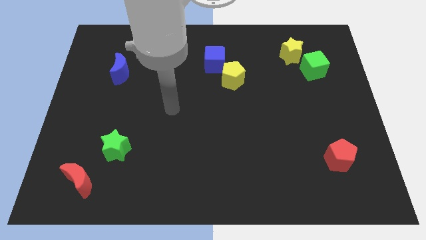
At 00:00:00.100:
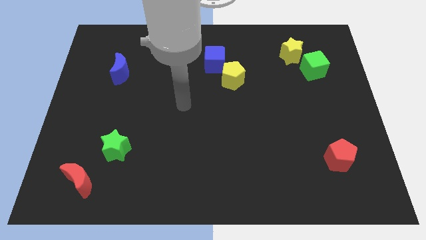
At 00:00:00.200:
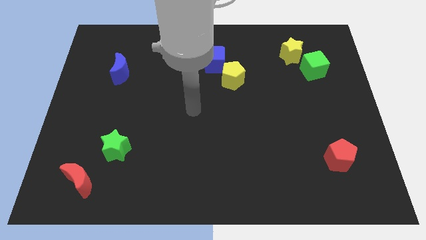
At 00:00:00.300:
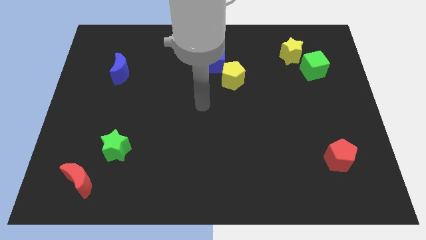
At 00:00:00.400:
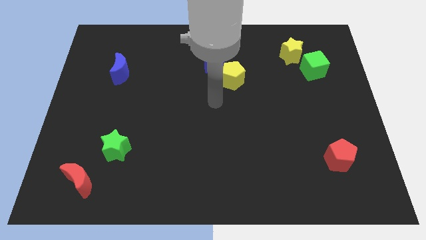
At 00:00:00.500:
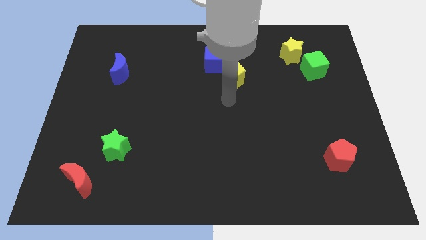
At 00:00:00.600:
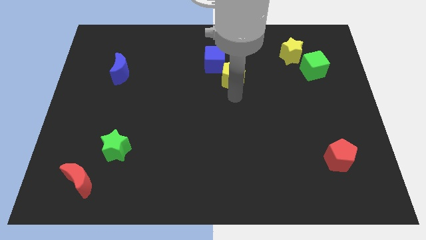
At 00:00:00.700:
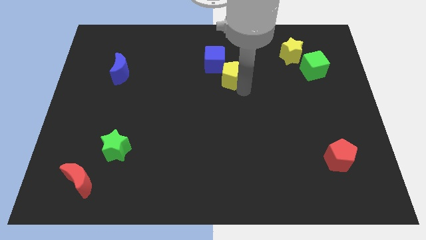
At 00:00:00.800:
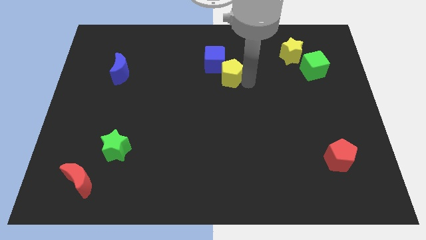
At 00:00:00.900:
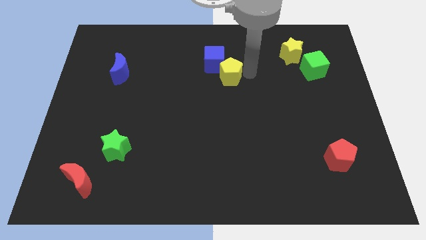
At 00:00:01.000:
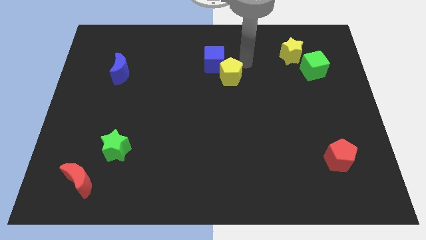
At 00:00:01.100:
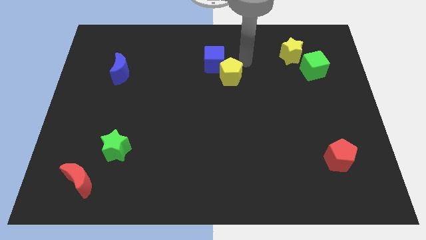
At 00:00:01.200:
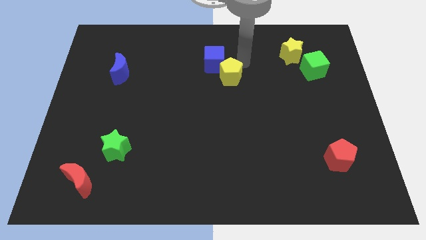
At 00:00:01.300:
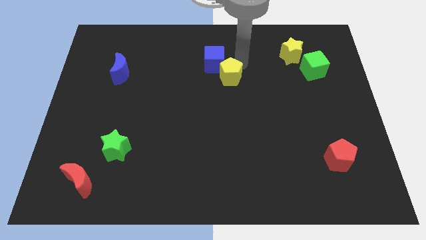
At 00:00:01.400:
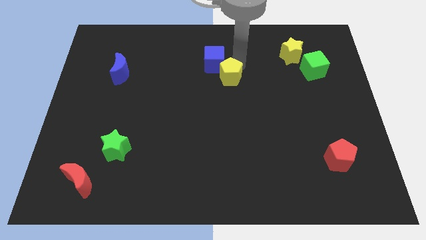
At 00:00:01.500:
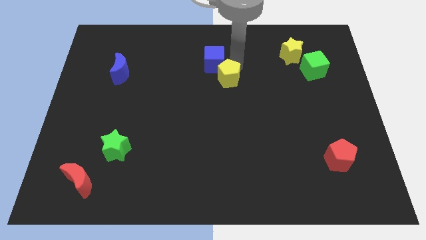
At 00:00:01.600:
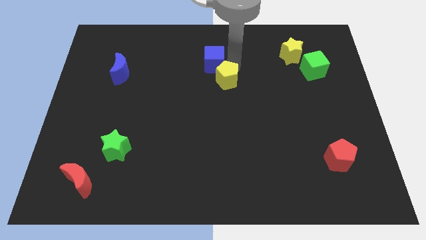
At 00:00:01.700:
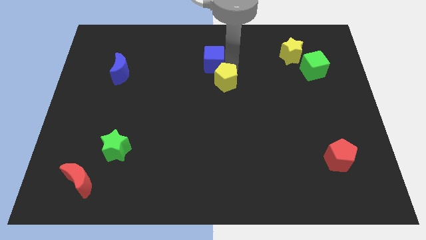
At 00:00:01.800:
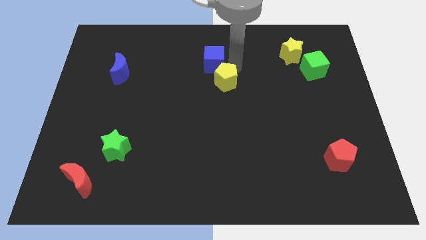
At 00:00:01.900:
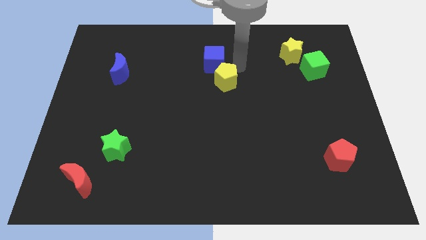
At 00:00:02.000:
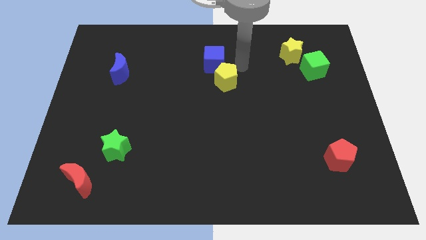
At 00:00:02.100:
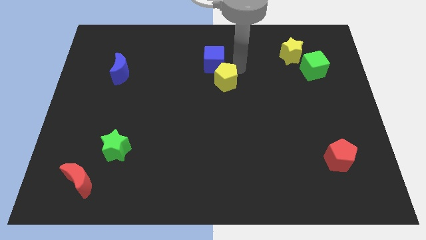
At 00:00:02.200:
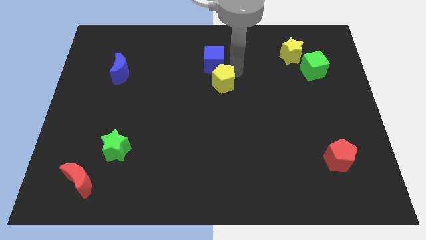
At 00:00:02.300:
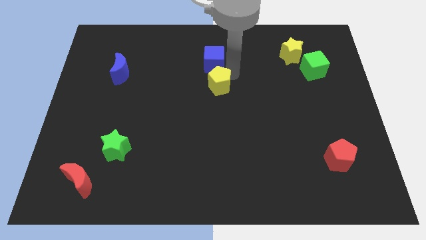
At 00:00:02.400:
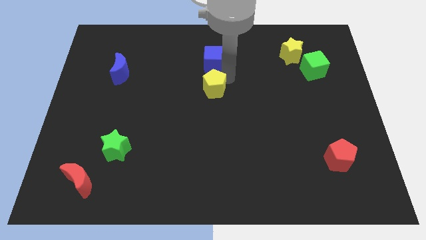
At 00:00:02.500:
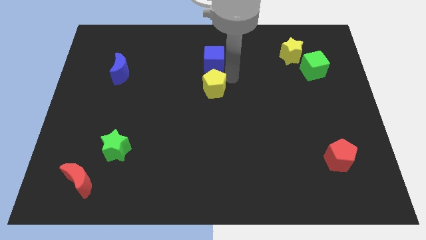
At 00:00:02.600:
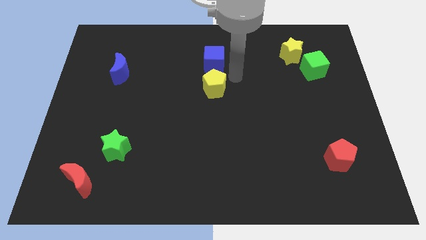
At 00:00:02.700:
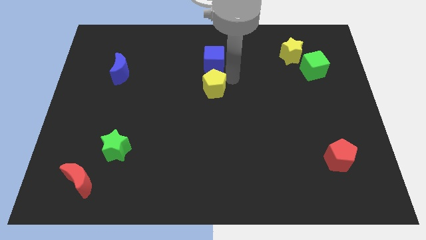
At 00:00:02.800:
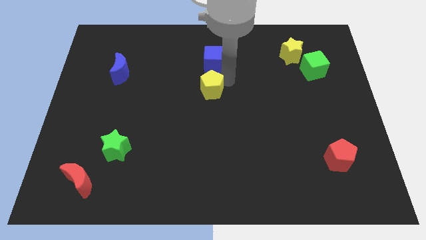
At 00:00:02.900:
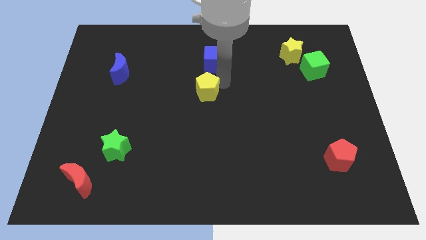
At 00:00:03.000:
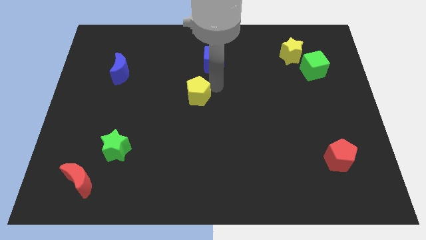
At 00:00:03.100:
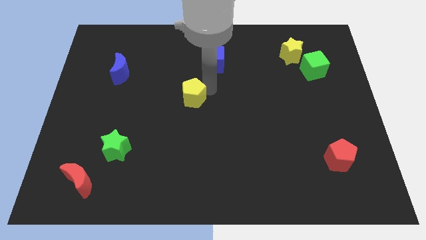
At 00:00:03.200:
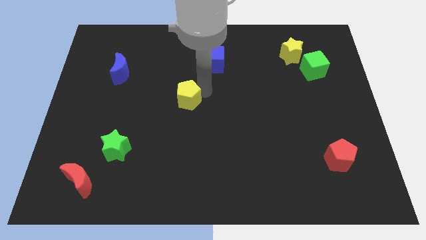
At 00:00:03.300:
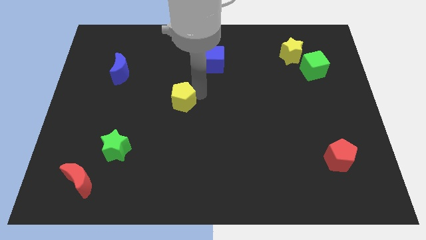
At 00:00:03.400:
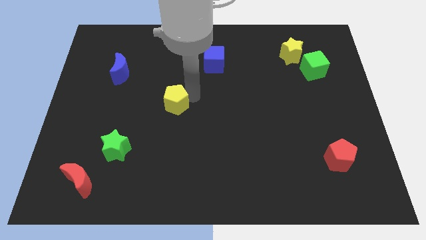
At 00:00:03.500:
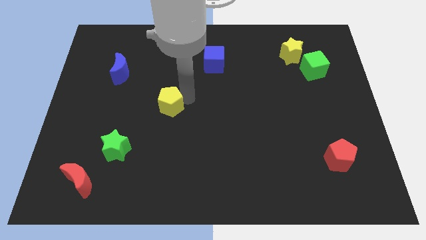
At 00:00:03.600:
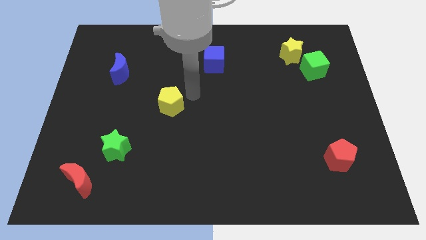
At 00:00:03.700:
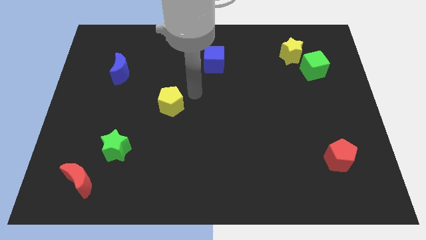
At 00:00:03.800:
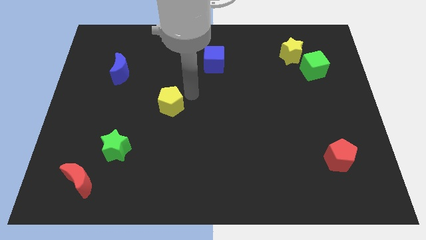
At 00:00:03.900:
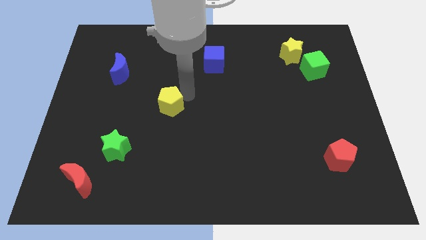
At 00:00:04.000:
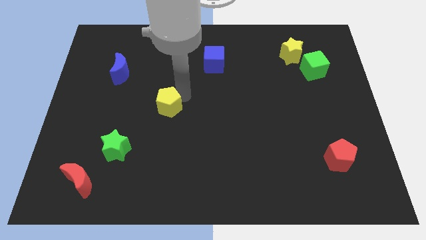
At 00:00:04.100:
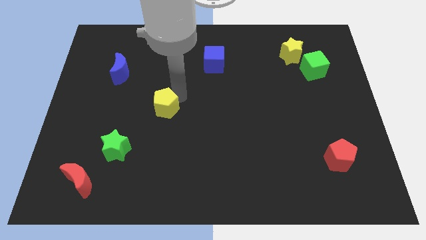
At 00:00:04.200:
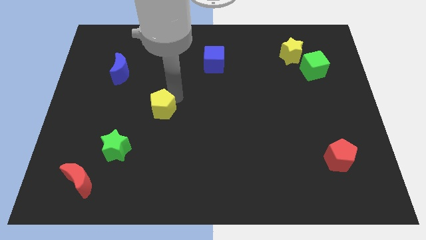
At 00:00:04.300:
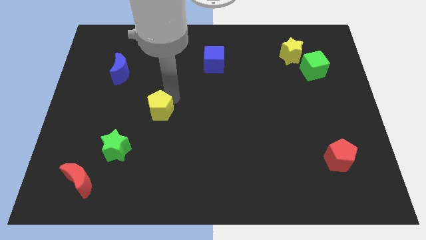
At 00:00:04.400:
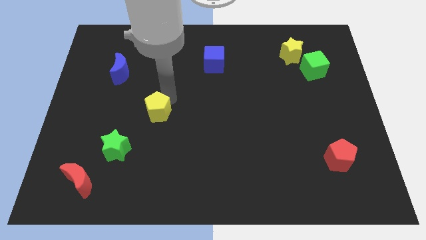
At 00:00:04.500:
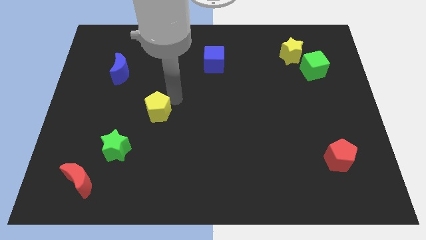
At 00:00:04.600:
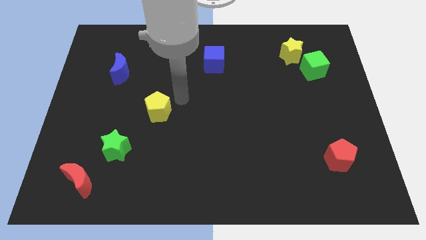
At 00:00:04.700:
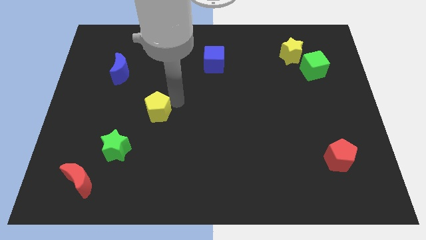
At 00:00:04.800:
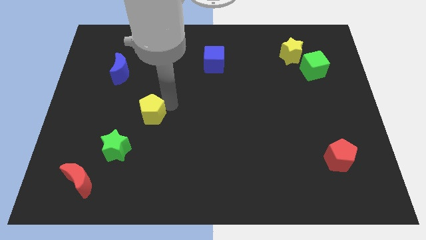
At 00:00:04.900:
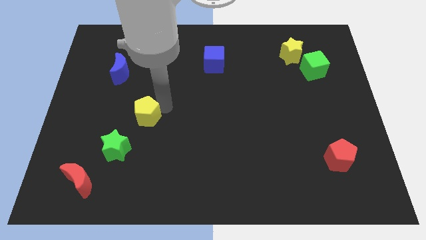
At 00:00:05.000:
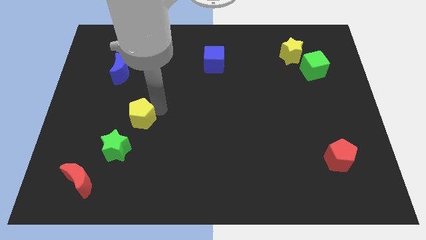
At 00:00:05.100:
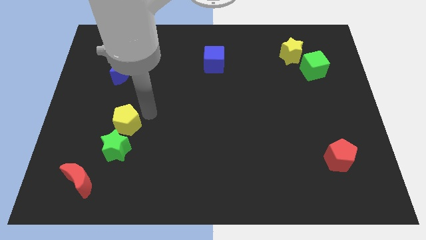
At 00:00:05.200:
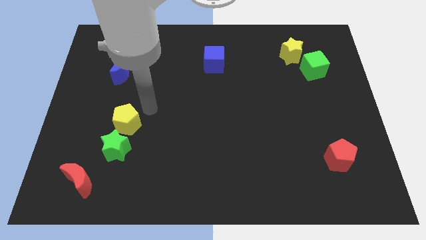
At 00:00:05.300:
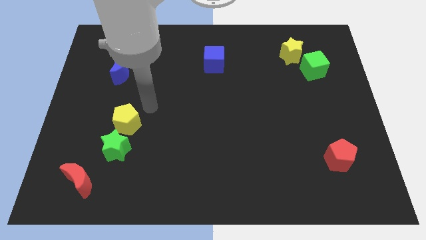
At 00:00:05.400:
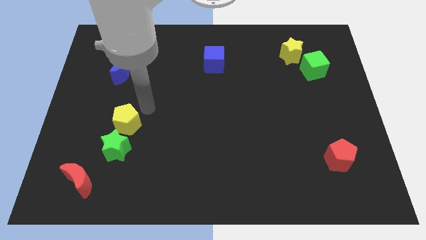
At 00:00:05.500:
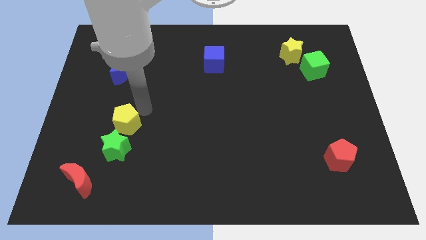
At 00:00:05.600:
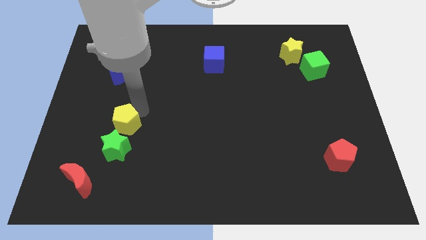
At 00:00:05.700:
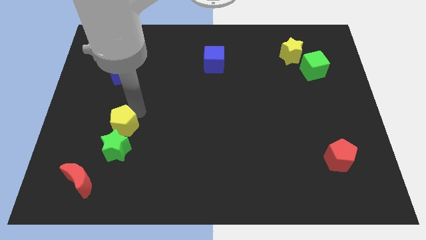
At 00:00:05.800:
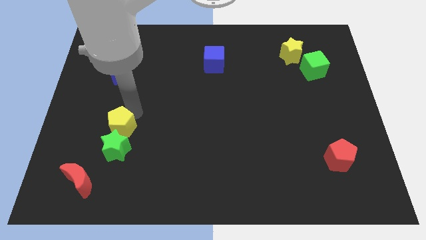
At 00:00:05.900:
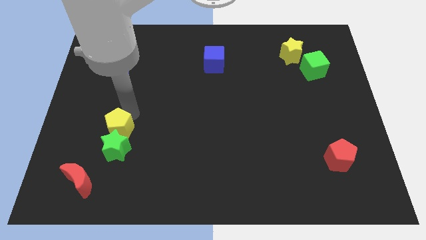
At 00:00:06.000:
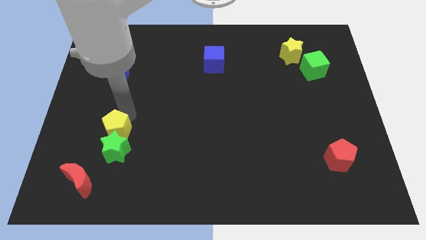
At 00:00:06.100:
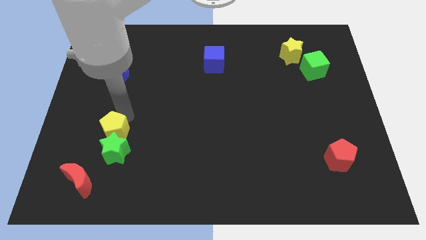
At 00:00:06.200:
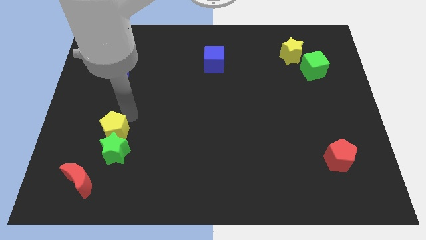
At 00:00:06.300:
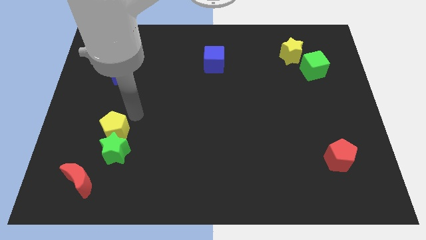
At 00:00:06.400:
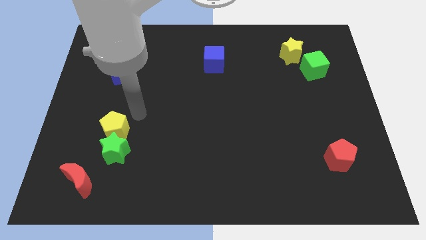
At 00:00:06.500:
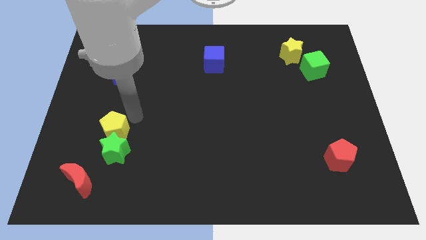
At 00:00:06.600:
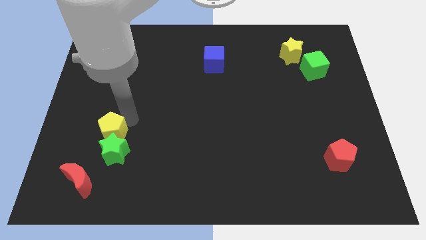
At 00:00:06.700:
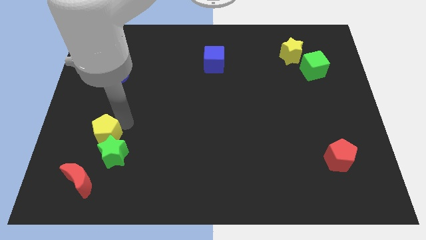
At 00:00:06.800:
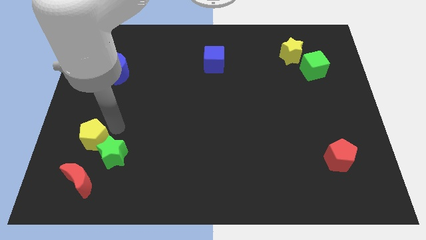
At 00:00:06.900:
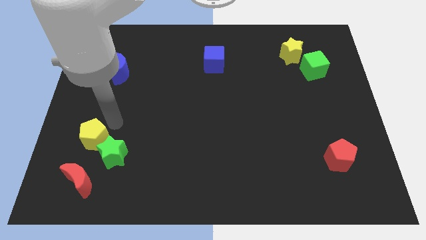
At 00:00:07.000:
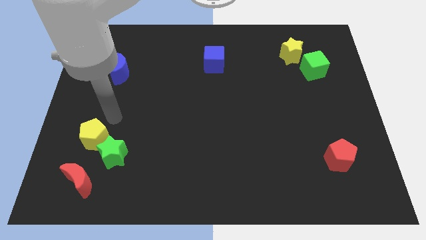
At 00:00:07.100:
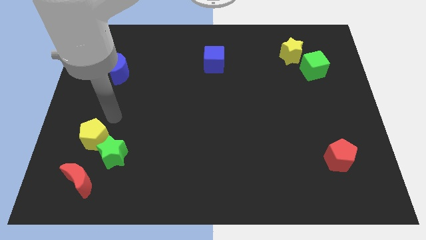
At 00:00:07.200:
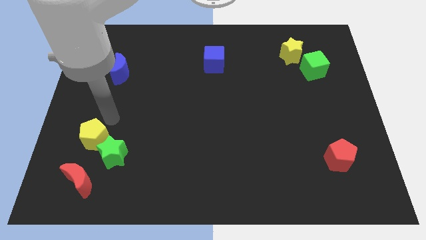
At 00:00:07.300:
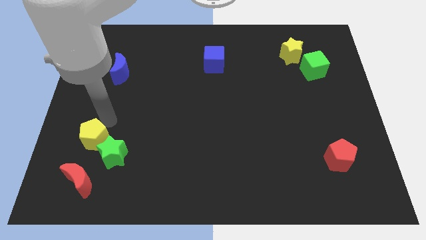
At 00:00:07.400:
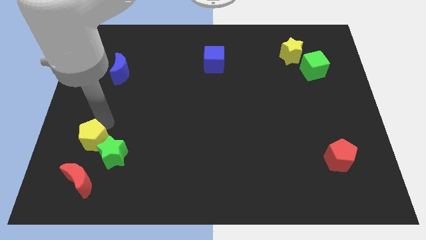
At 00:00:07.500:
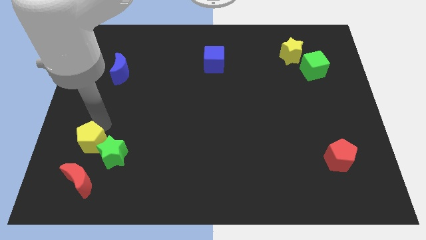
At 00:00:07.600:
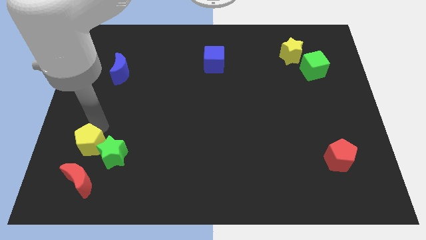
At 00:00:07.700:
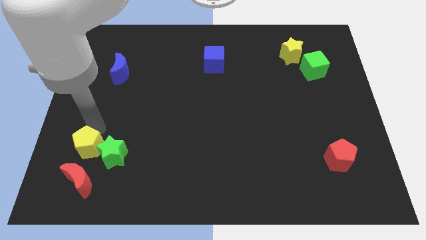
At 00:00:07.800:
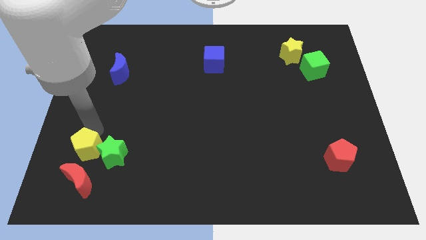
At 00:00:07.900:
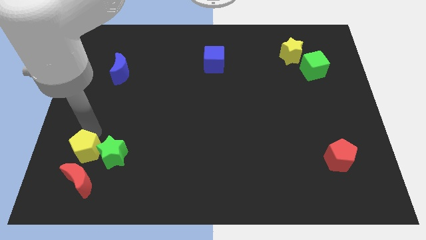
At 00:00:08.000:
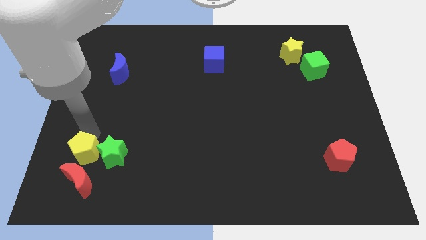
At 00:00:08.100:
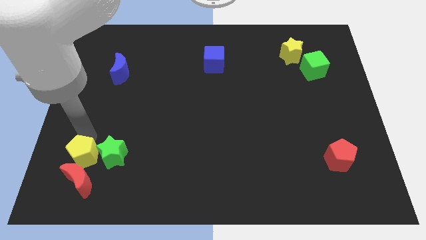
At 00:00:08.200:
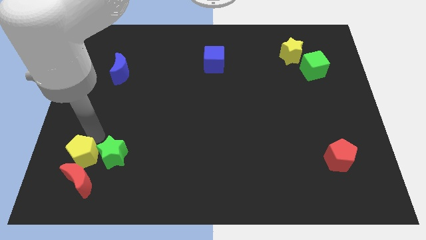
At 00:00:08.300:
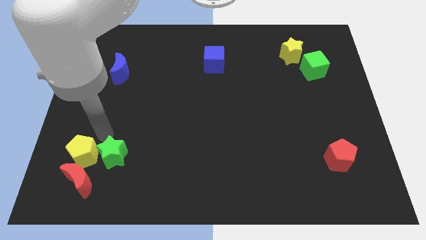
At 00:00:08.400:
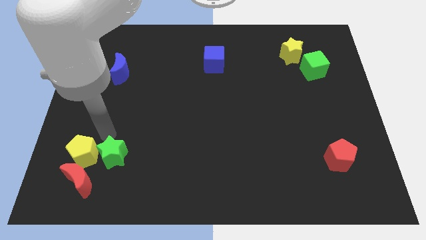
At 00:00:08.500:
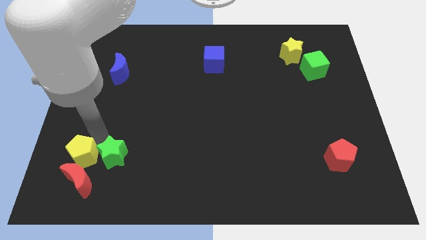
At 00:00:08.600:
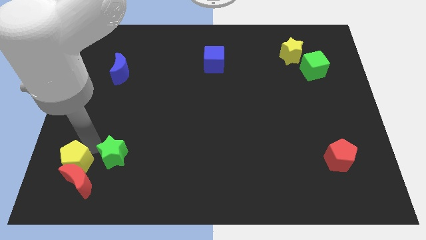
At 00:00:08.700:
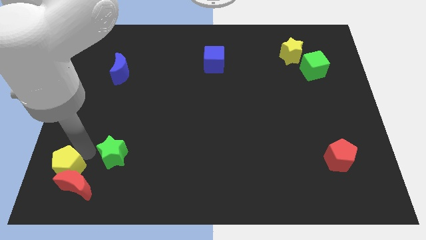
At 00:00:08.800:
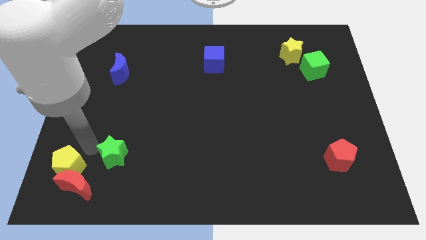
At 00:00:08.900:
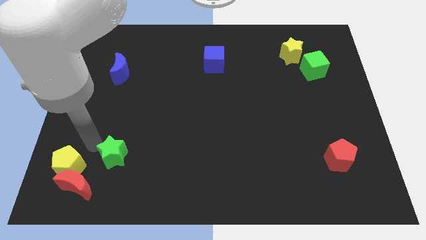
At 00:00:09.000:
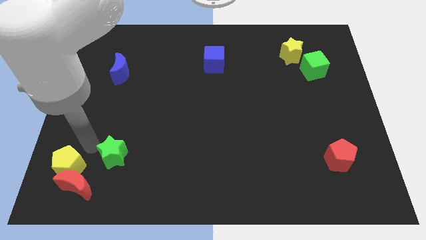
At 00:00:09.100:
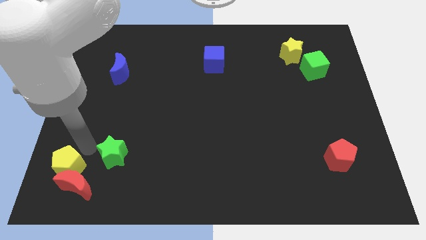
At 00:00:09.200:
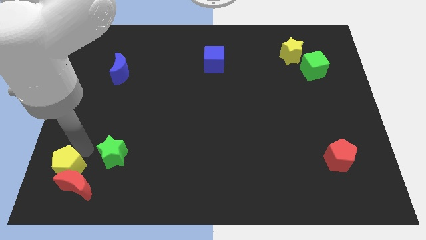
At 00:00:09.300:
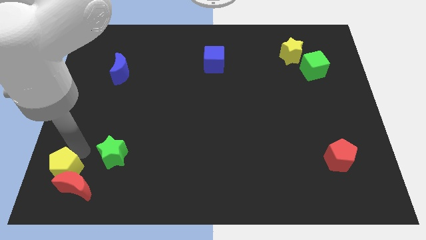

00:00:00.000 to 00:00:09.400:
move the yellow pentagon to the bottom left corner
